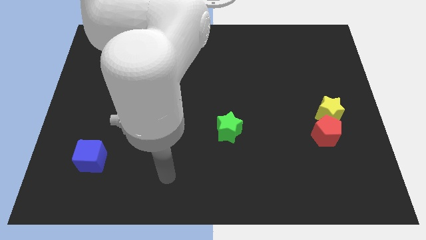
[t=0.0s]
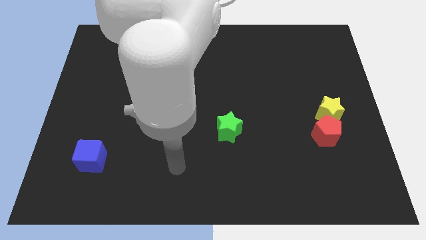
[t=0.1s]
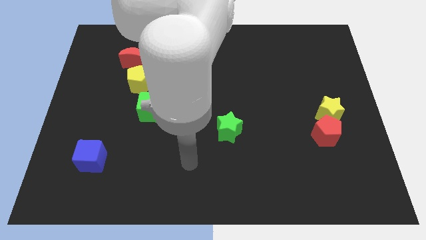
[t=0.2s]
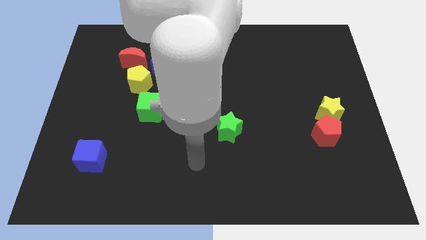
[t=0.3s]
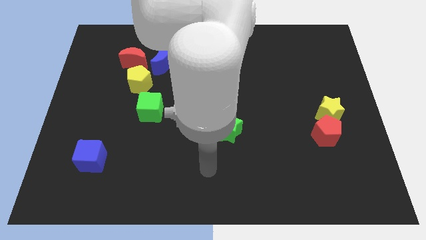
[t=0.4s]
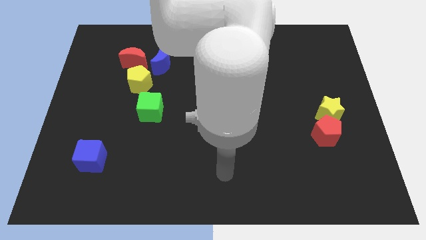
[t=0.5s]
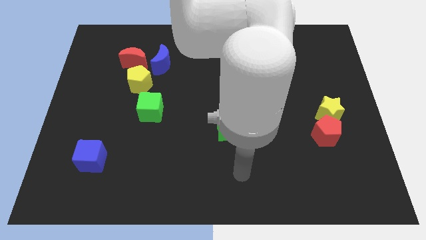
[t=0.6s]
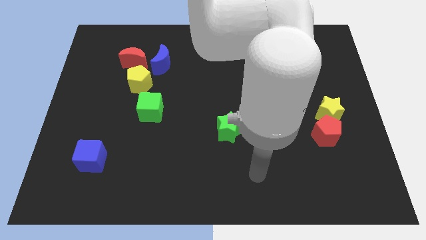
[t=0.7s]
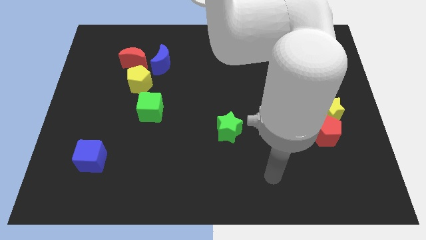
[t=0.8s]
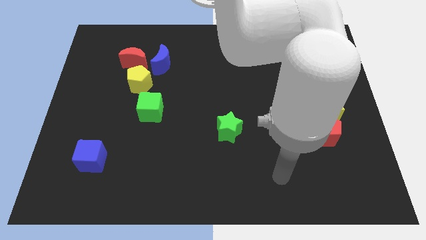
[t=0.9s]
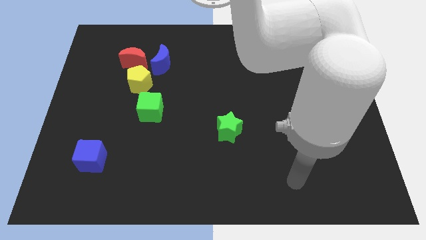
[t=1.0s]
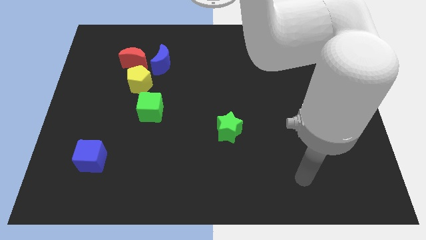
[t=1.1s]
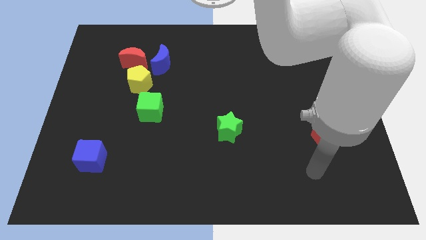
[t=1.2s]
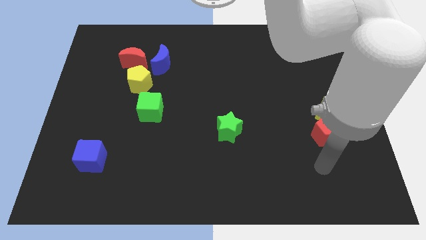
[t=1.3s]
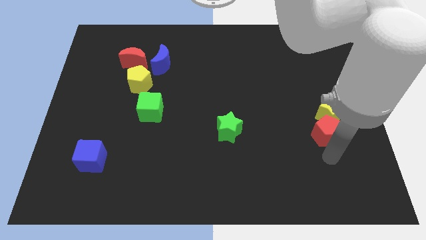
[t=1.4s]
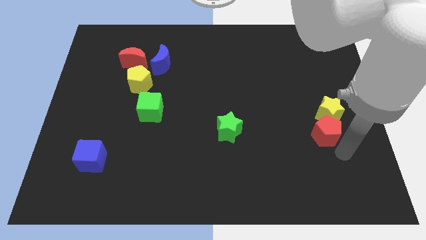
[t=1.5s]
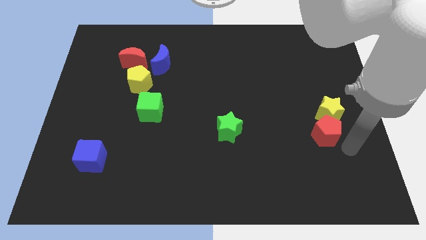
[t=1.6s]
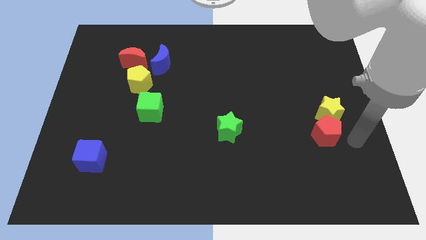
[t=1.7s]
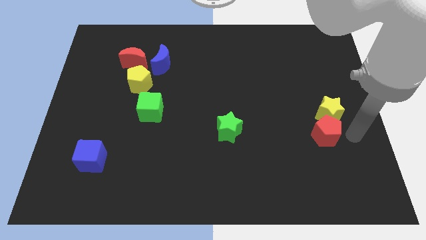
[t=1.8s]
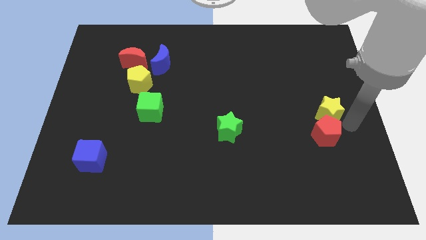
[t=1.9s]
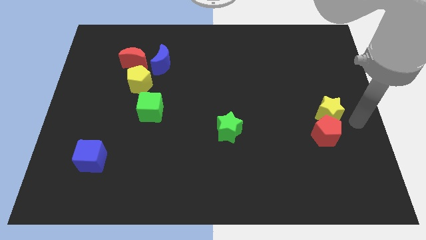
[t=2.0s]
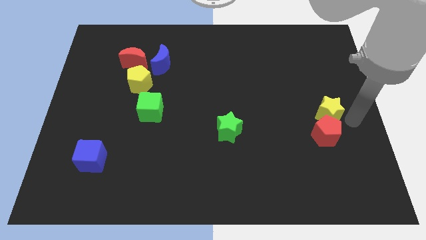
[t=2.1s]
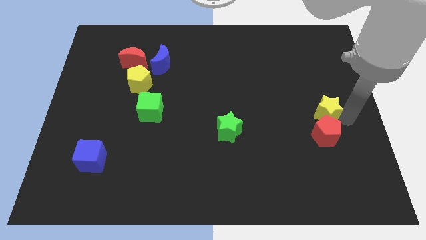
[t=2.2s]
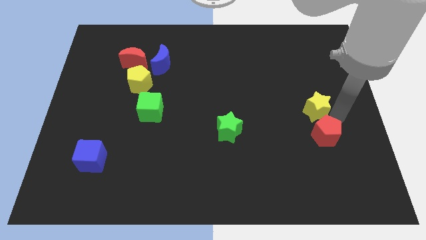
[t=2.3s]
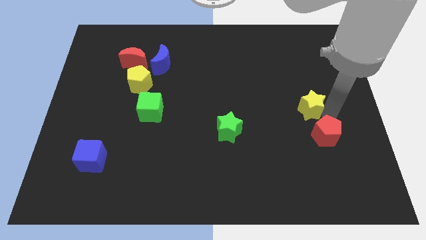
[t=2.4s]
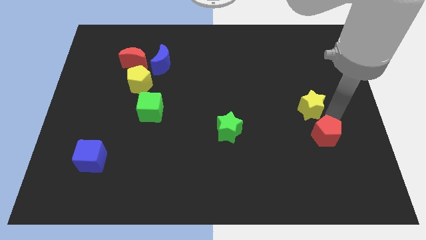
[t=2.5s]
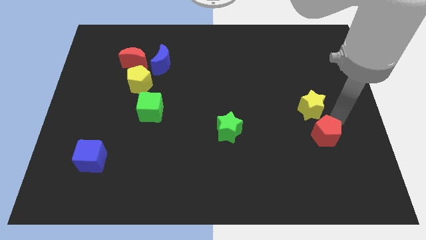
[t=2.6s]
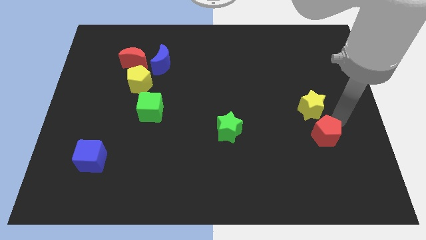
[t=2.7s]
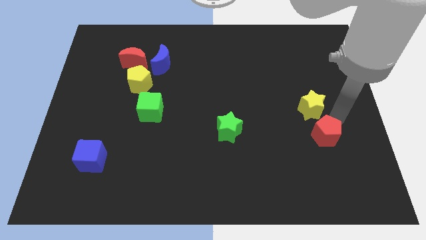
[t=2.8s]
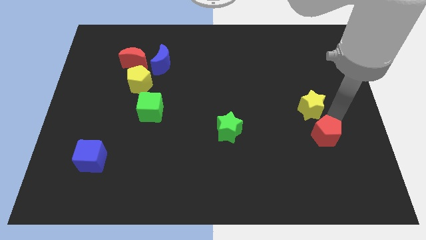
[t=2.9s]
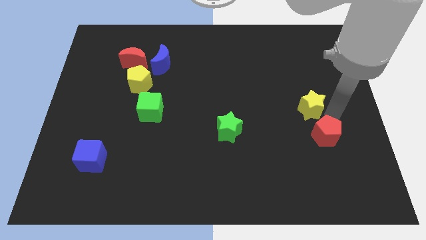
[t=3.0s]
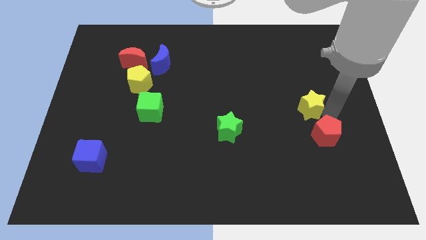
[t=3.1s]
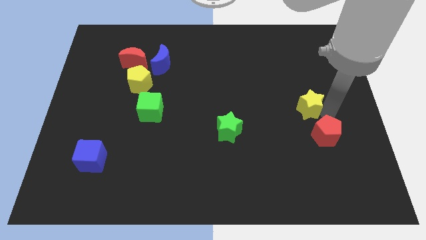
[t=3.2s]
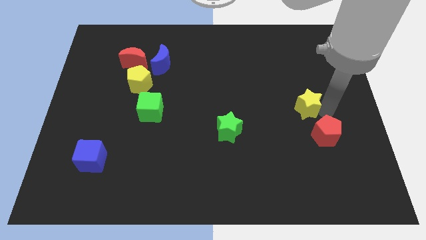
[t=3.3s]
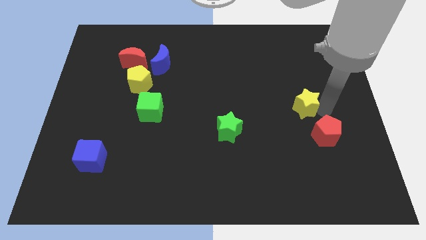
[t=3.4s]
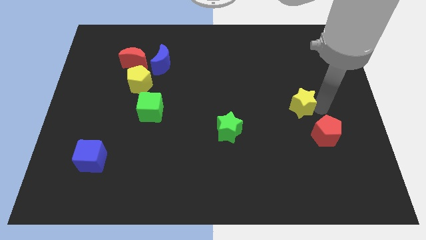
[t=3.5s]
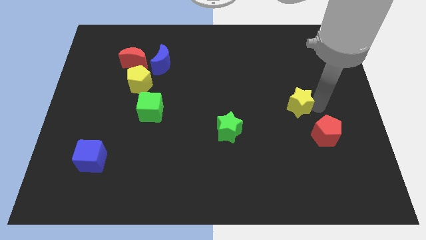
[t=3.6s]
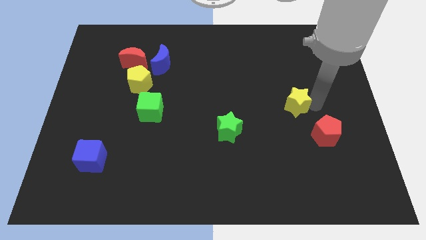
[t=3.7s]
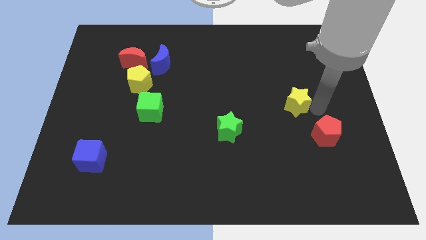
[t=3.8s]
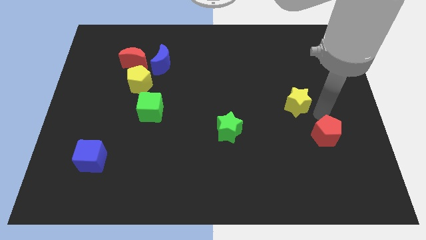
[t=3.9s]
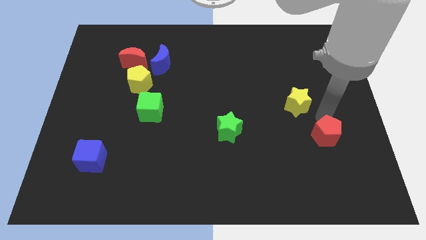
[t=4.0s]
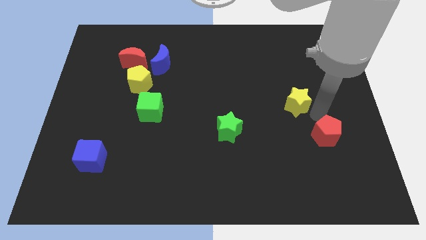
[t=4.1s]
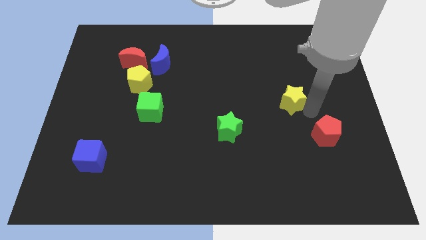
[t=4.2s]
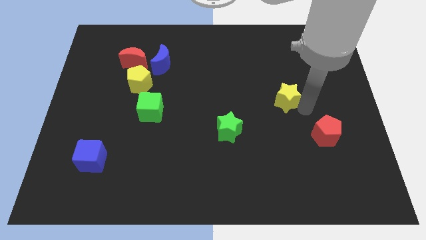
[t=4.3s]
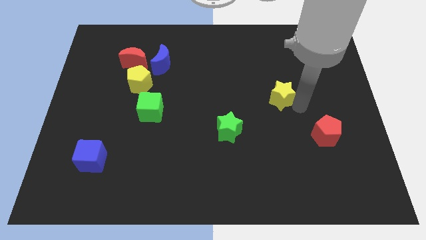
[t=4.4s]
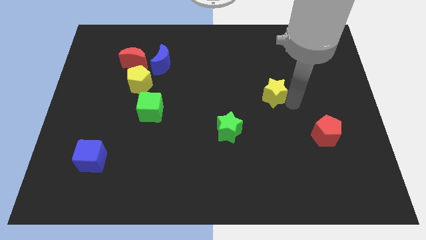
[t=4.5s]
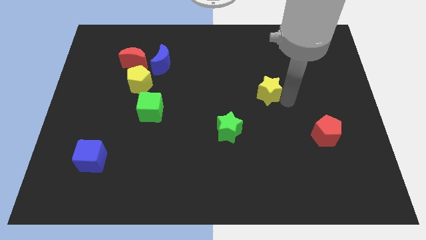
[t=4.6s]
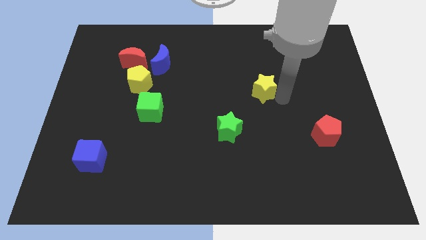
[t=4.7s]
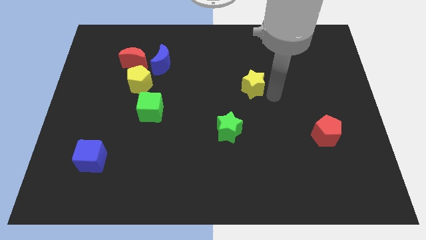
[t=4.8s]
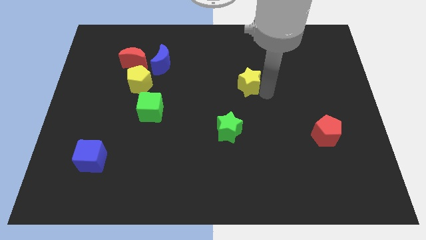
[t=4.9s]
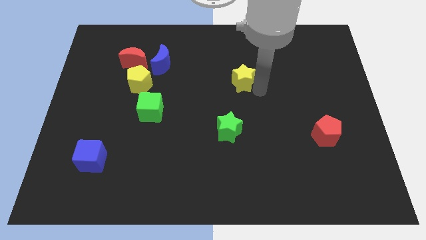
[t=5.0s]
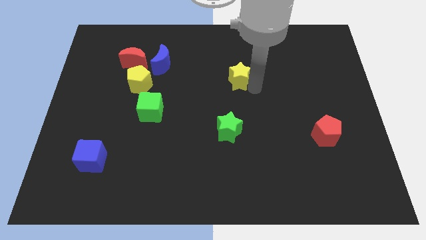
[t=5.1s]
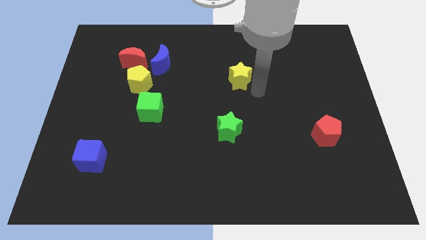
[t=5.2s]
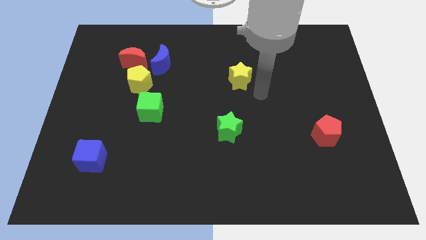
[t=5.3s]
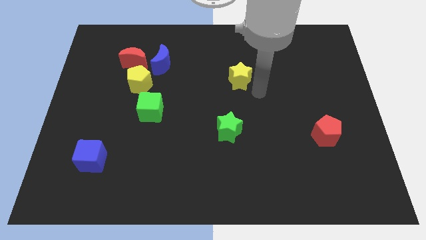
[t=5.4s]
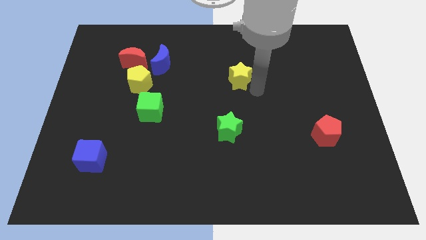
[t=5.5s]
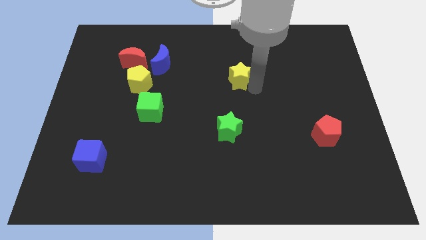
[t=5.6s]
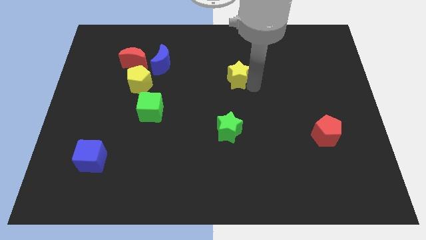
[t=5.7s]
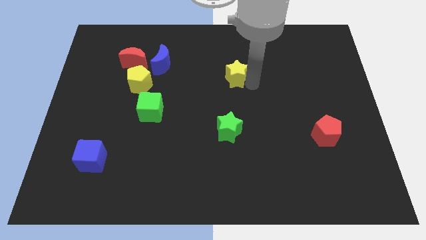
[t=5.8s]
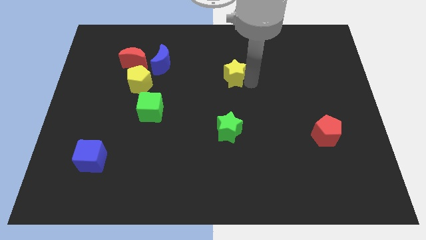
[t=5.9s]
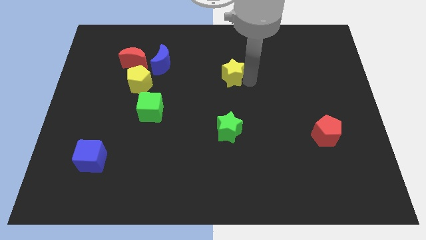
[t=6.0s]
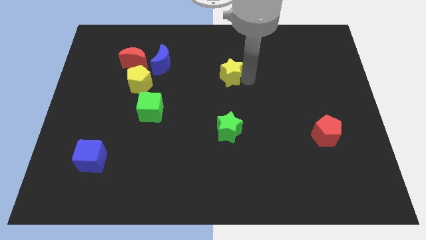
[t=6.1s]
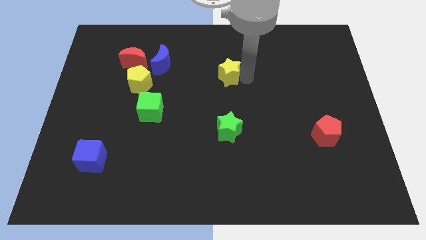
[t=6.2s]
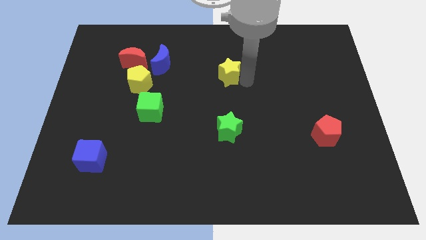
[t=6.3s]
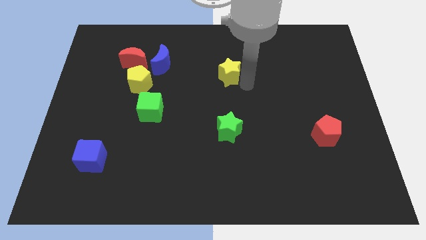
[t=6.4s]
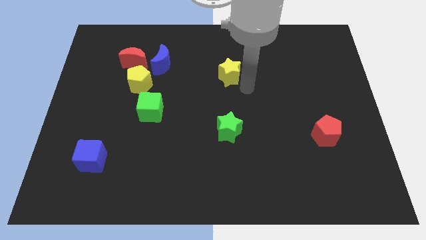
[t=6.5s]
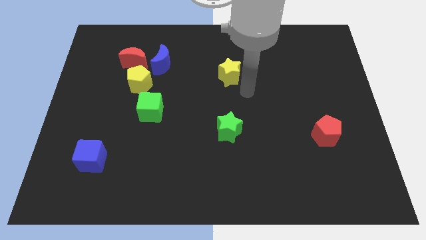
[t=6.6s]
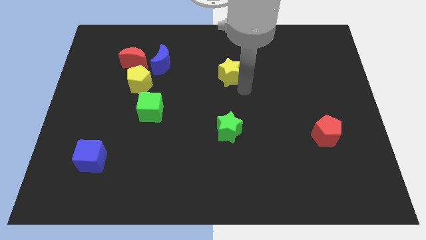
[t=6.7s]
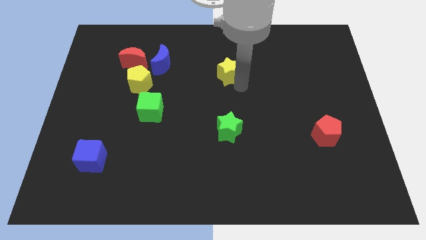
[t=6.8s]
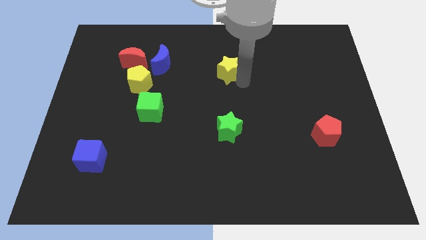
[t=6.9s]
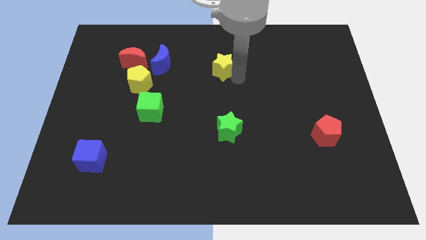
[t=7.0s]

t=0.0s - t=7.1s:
slide the yellow star to the right side of the blue moon
